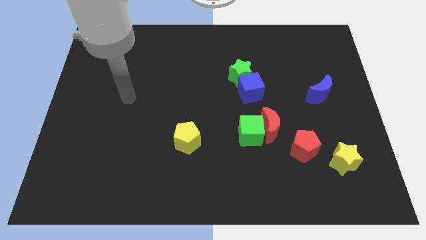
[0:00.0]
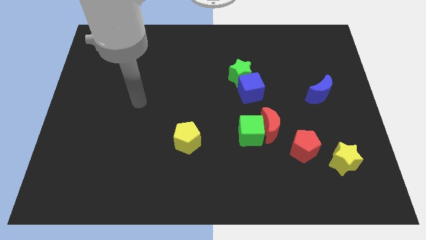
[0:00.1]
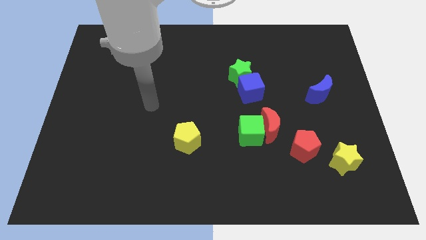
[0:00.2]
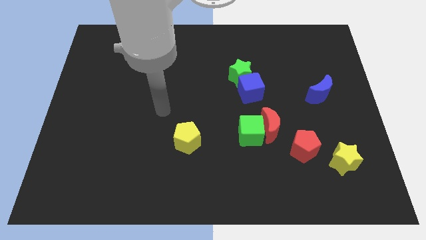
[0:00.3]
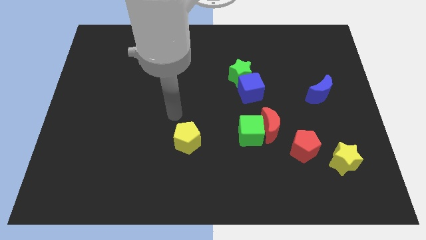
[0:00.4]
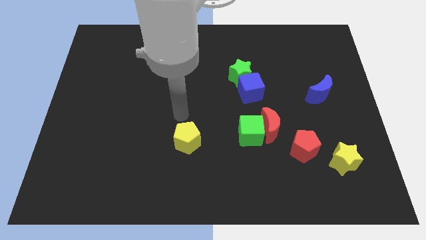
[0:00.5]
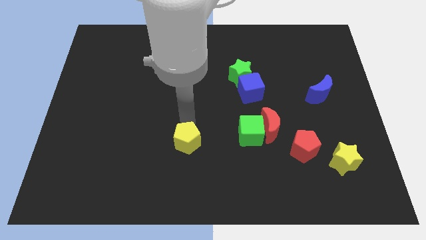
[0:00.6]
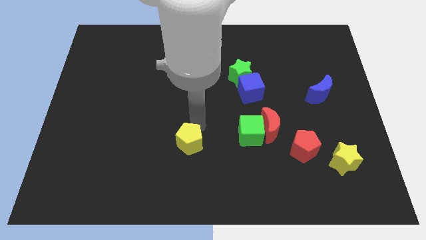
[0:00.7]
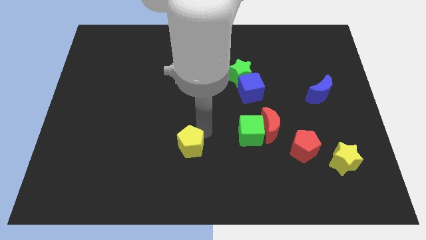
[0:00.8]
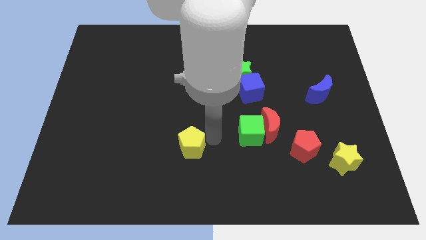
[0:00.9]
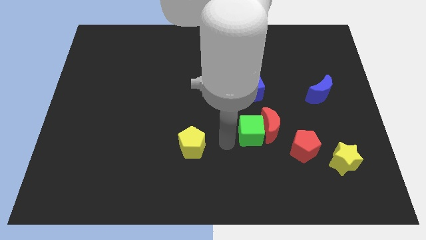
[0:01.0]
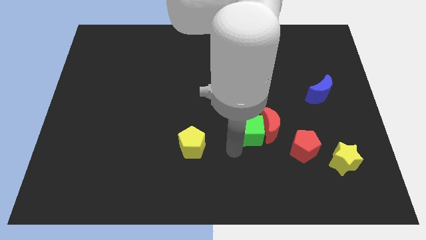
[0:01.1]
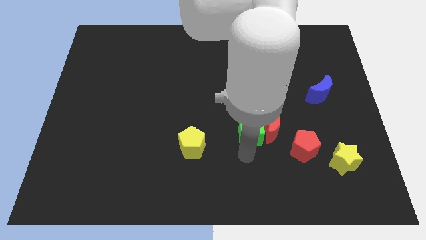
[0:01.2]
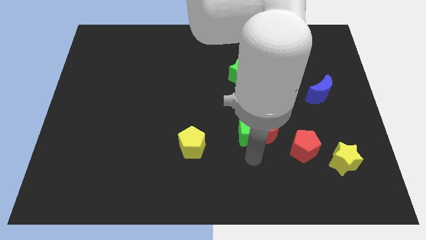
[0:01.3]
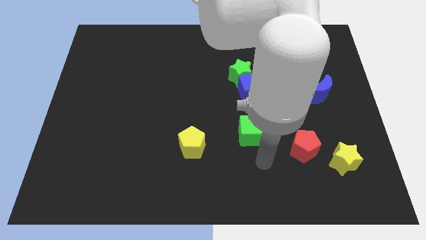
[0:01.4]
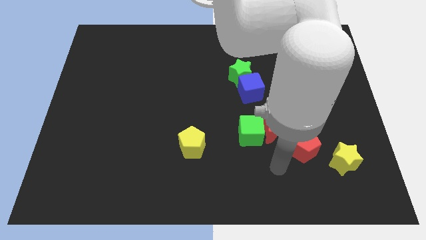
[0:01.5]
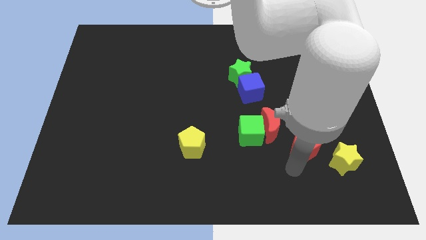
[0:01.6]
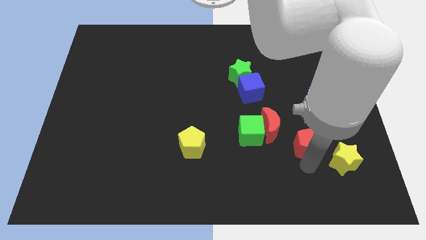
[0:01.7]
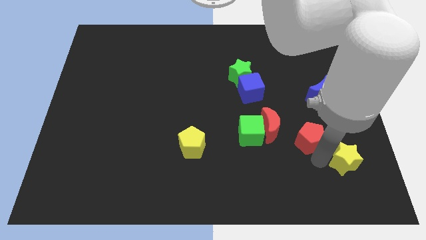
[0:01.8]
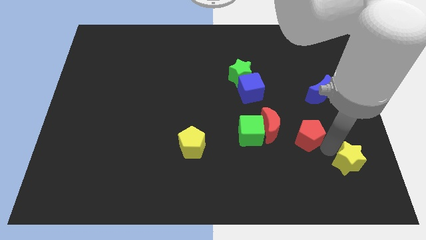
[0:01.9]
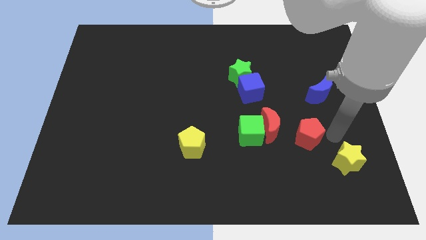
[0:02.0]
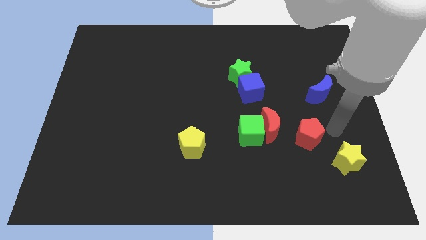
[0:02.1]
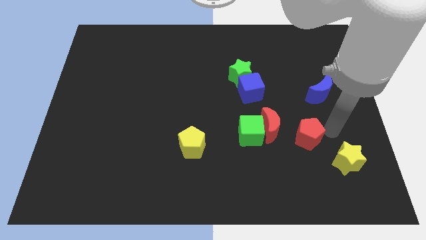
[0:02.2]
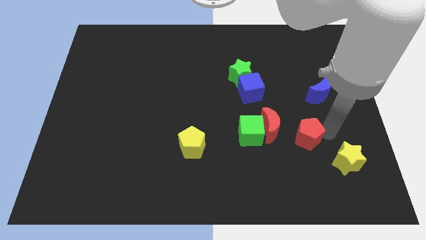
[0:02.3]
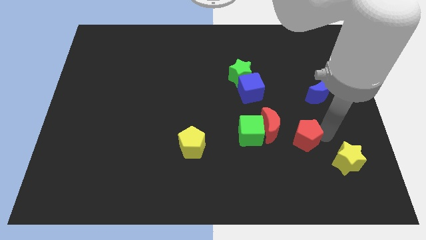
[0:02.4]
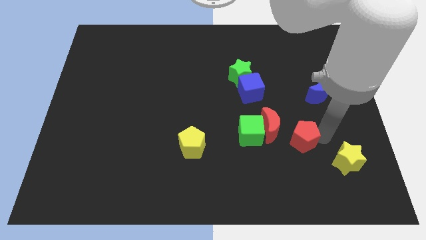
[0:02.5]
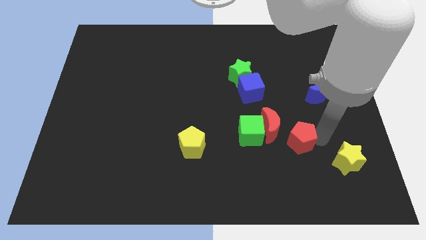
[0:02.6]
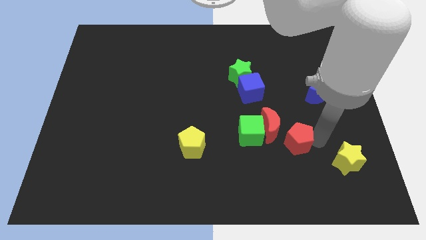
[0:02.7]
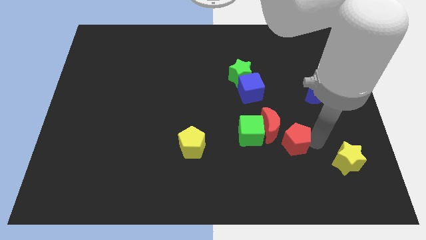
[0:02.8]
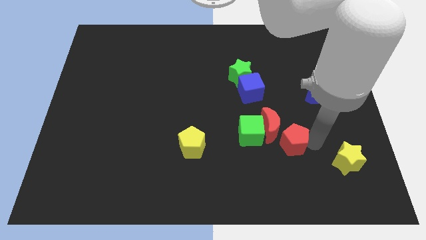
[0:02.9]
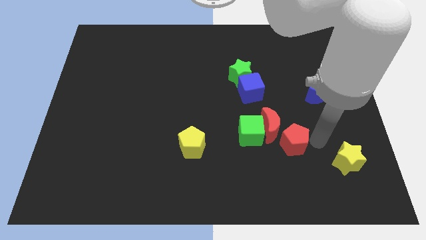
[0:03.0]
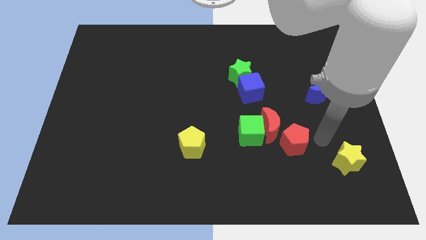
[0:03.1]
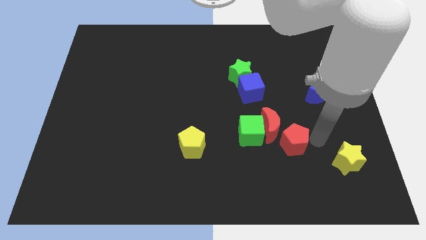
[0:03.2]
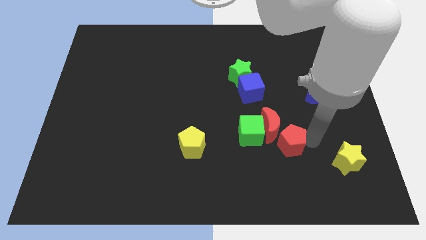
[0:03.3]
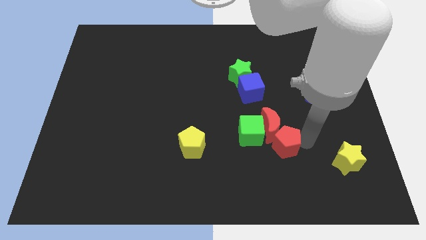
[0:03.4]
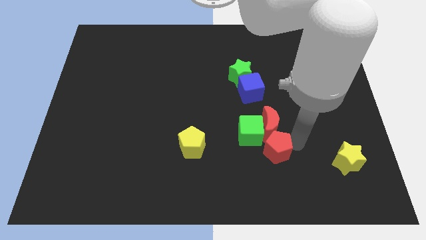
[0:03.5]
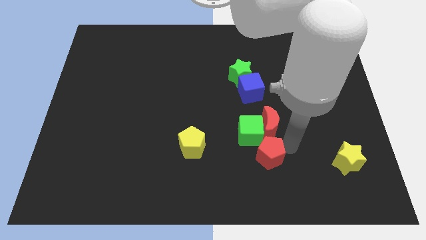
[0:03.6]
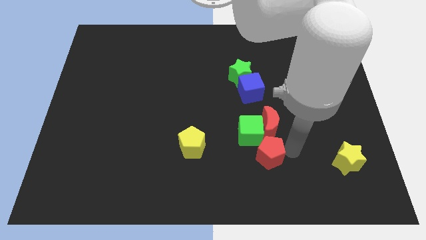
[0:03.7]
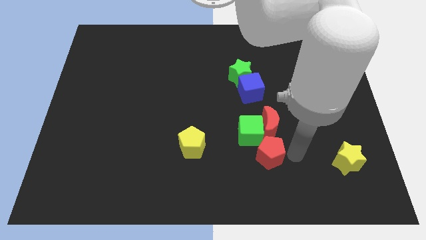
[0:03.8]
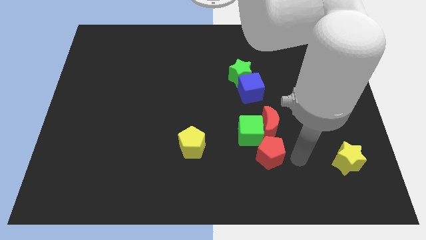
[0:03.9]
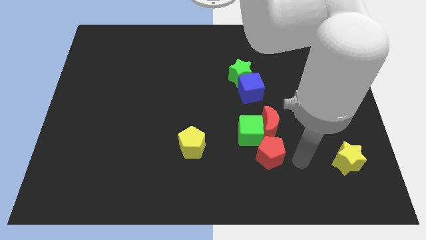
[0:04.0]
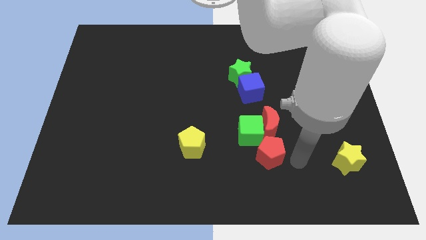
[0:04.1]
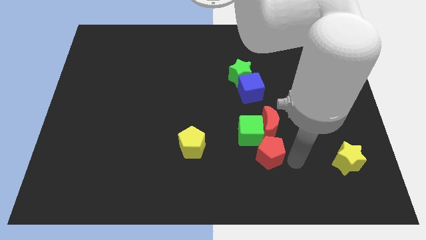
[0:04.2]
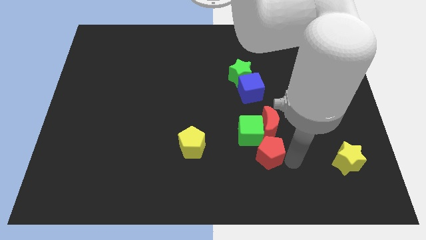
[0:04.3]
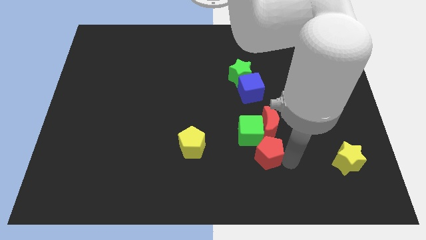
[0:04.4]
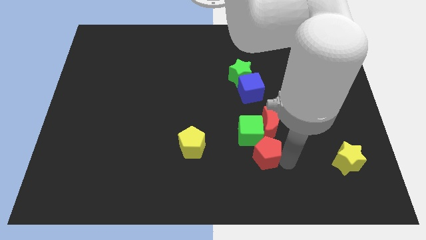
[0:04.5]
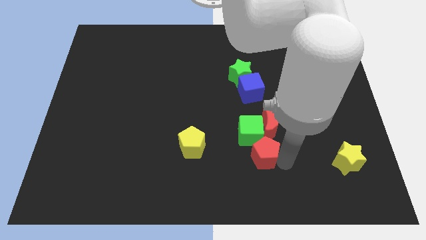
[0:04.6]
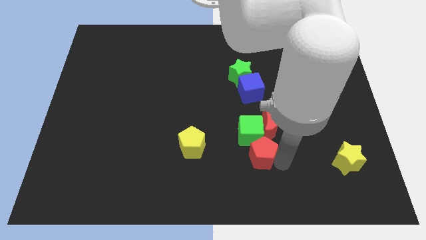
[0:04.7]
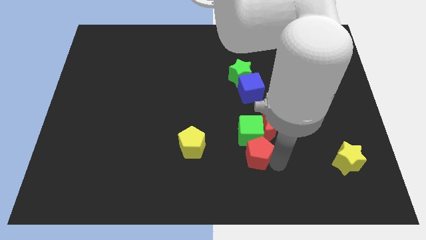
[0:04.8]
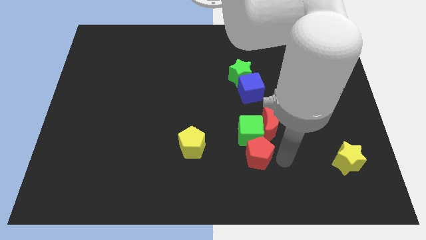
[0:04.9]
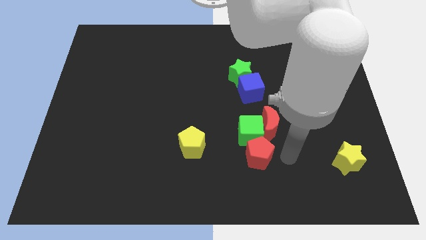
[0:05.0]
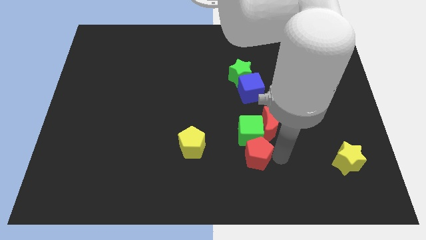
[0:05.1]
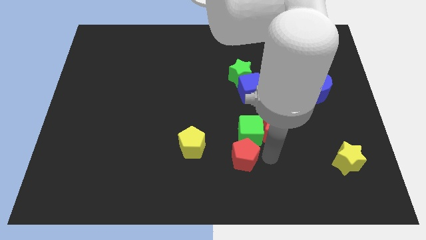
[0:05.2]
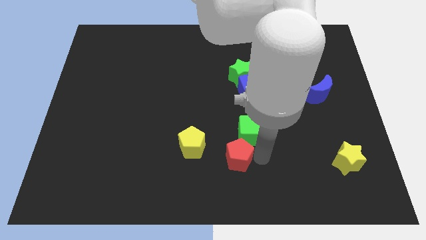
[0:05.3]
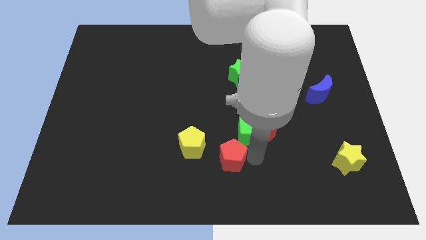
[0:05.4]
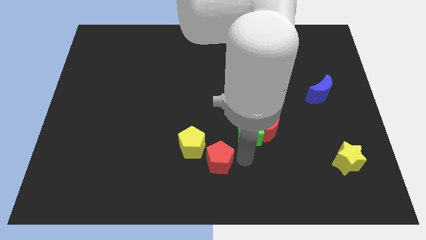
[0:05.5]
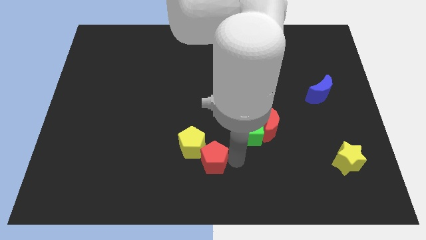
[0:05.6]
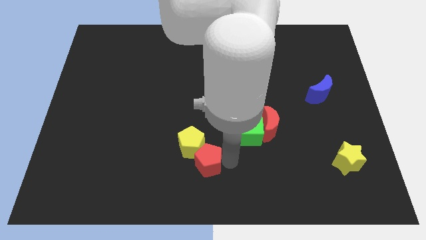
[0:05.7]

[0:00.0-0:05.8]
move the red pentagon left

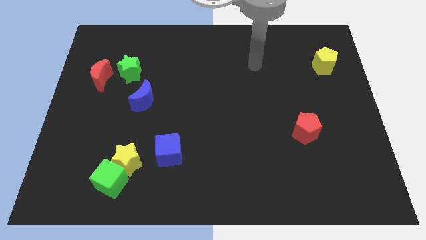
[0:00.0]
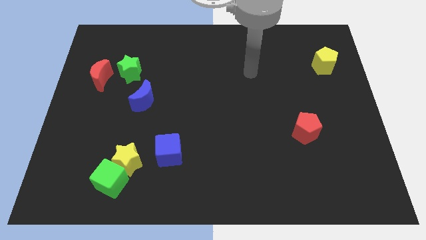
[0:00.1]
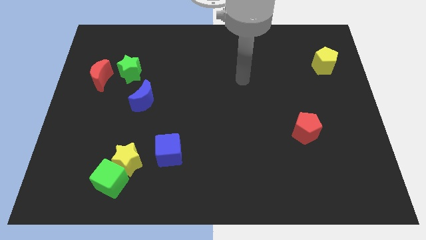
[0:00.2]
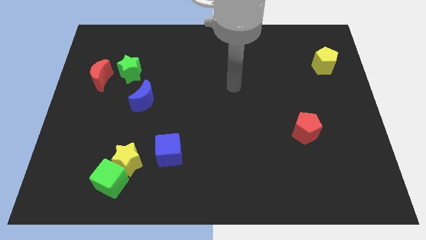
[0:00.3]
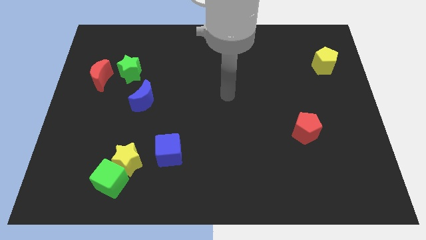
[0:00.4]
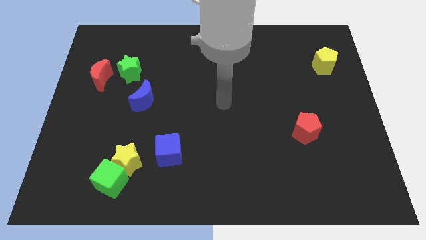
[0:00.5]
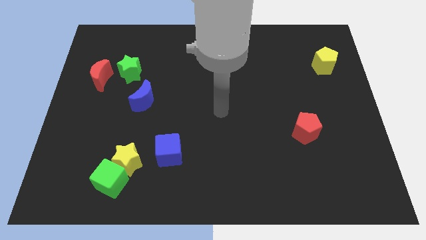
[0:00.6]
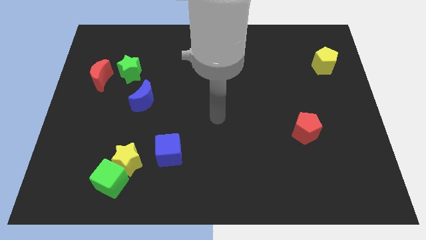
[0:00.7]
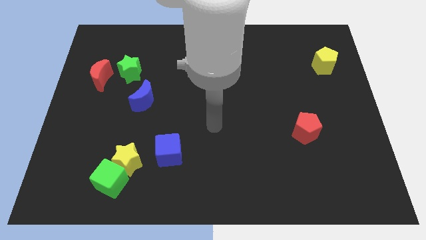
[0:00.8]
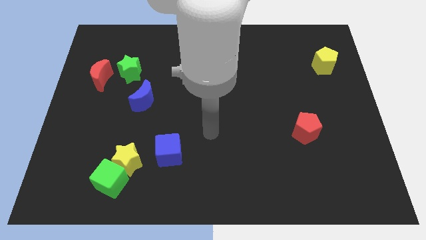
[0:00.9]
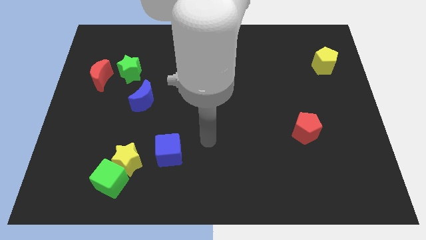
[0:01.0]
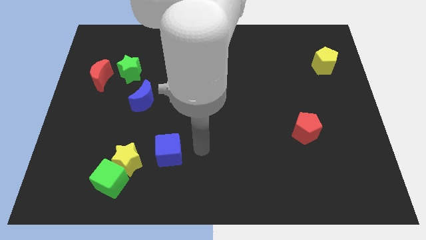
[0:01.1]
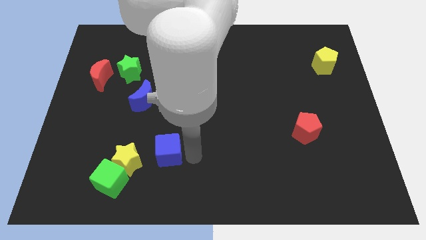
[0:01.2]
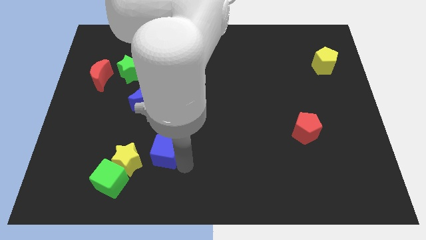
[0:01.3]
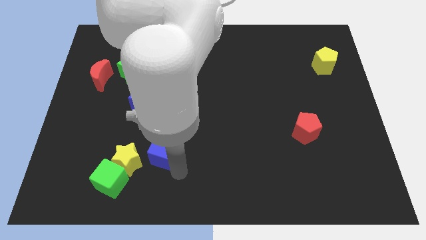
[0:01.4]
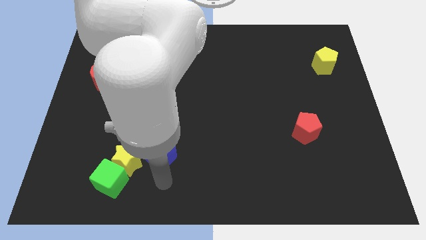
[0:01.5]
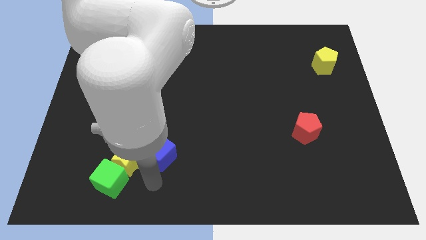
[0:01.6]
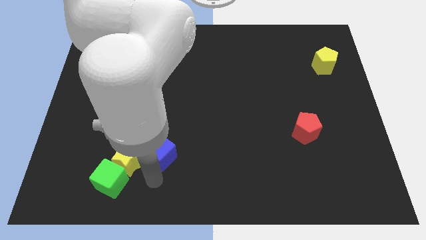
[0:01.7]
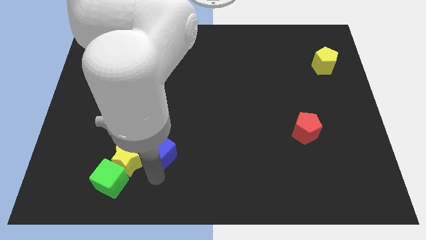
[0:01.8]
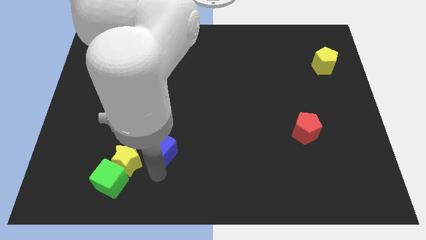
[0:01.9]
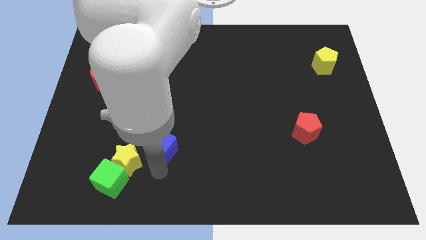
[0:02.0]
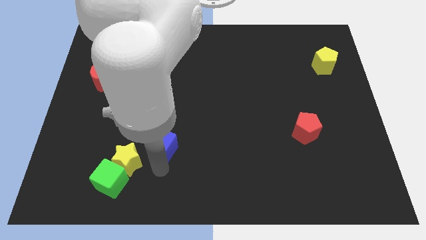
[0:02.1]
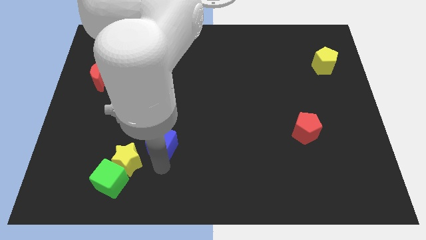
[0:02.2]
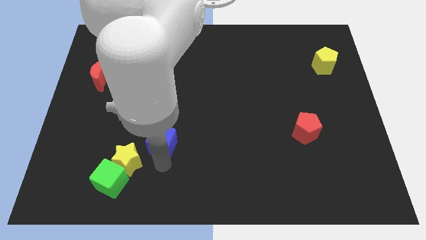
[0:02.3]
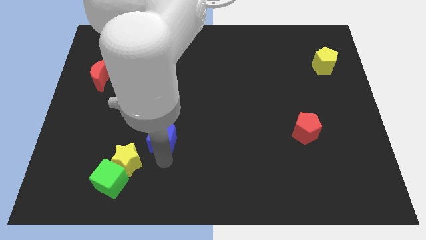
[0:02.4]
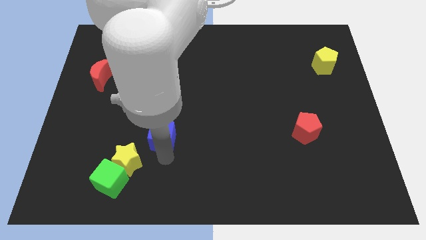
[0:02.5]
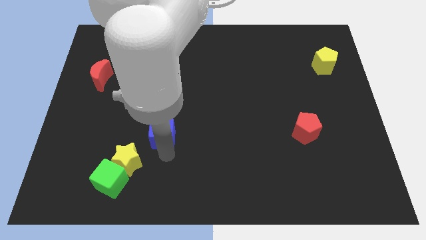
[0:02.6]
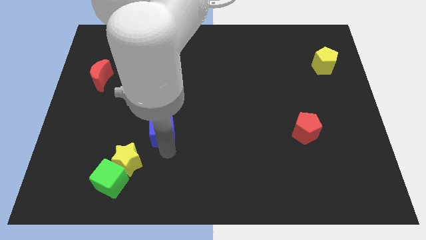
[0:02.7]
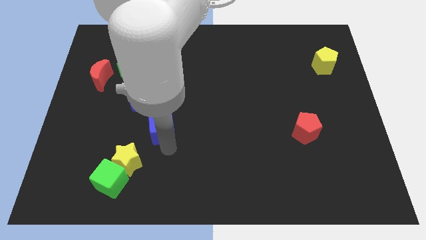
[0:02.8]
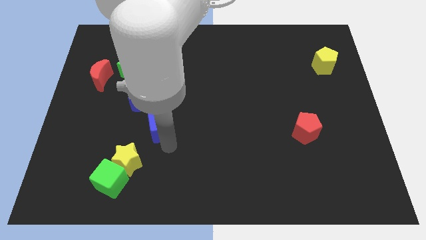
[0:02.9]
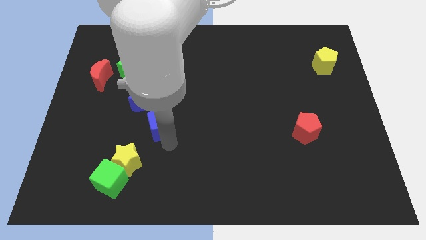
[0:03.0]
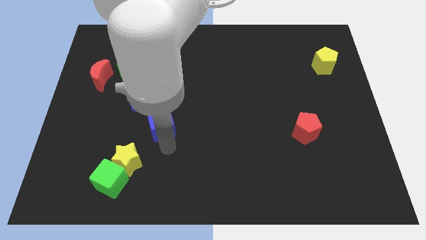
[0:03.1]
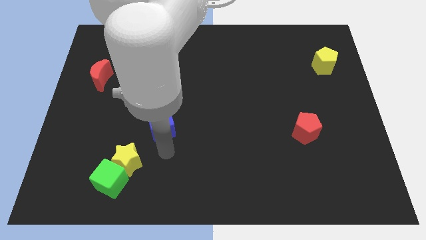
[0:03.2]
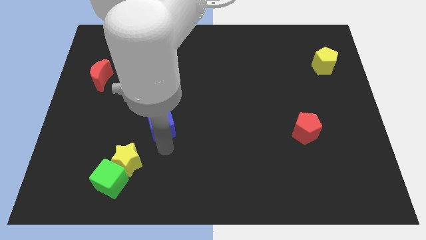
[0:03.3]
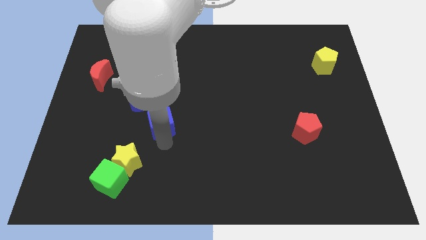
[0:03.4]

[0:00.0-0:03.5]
move the blue cube up a little
